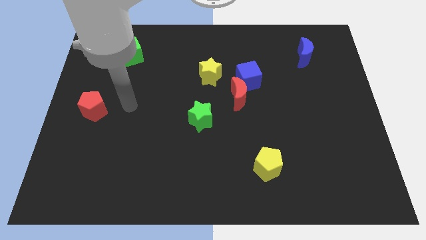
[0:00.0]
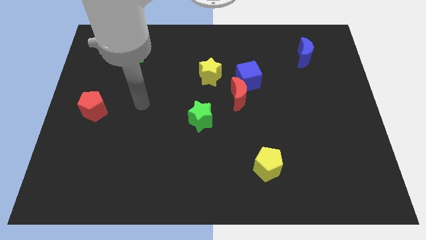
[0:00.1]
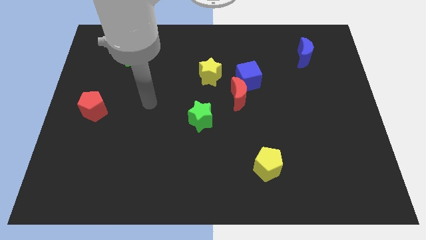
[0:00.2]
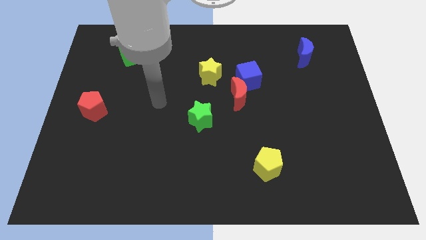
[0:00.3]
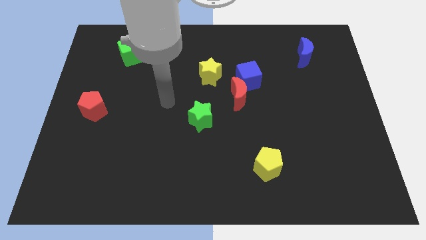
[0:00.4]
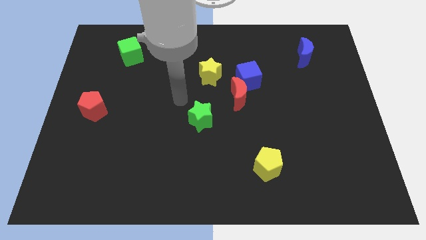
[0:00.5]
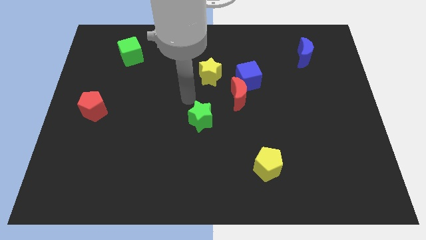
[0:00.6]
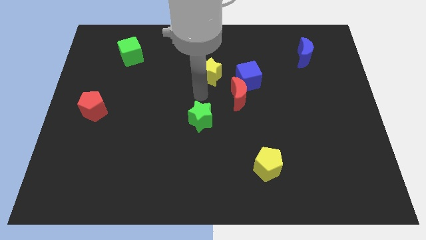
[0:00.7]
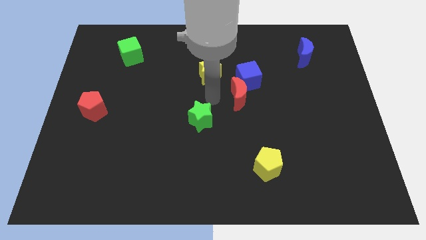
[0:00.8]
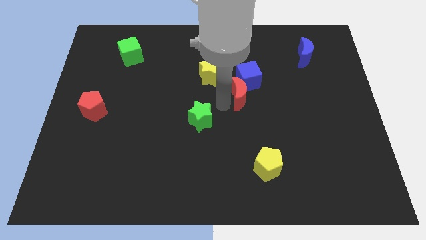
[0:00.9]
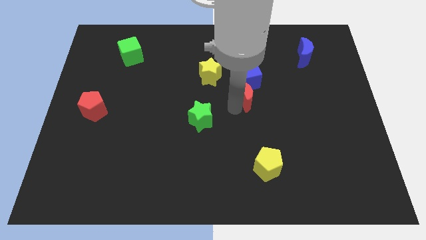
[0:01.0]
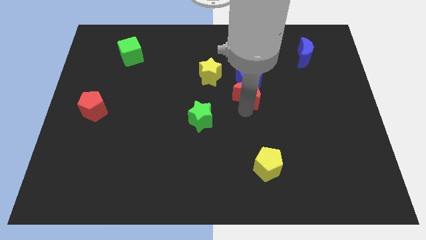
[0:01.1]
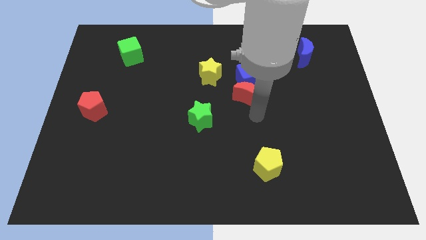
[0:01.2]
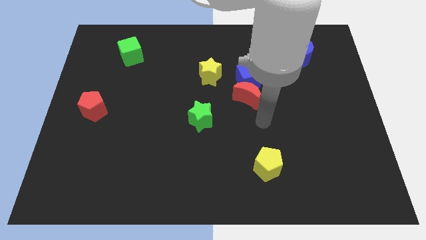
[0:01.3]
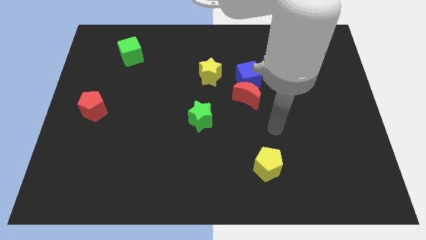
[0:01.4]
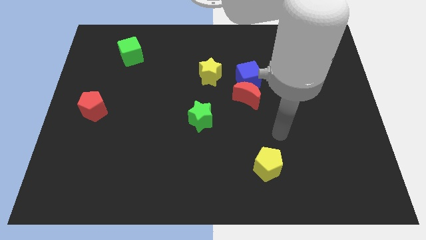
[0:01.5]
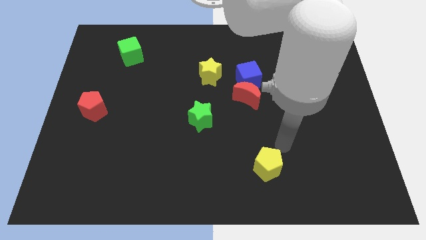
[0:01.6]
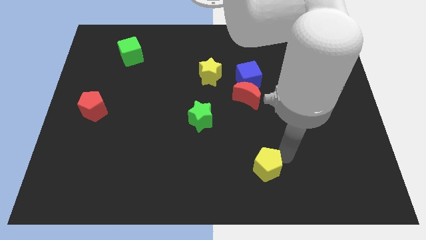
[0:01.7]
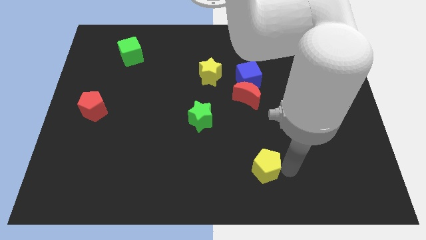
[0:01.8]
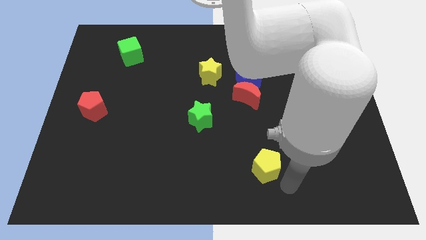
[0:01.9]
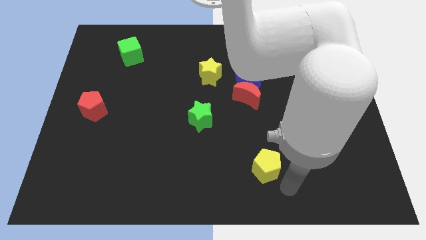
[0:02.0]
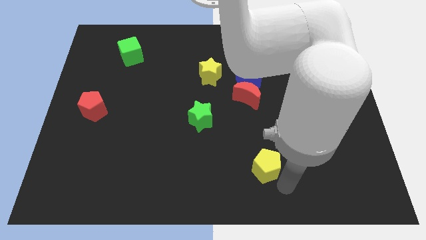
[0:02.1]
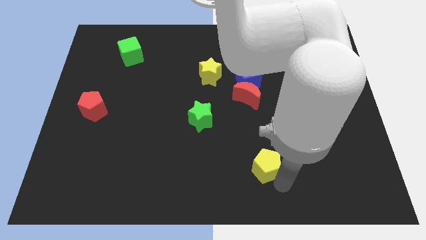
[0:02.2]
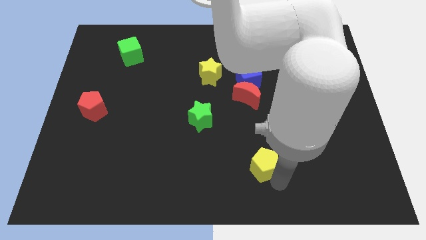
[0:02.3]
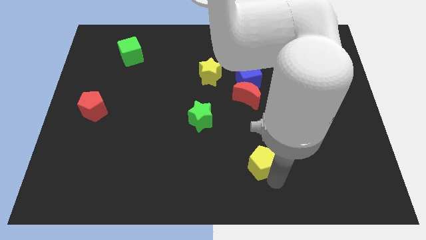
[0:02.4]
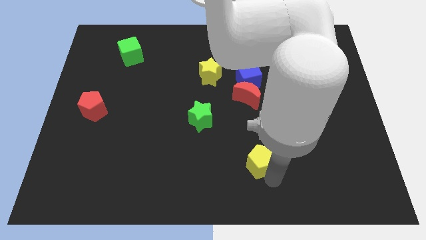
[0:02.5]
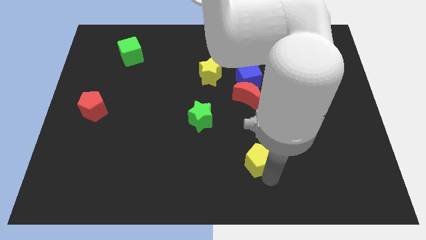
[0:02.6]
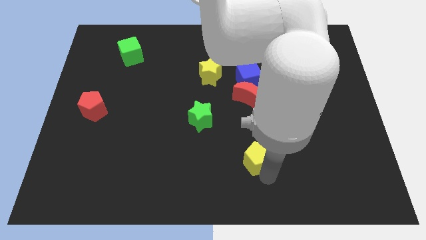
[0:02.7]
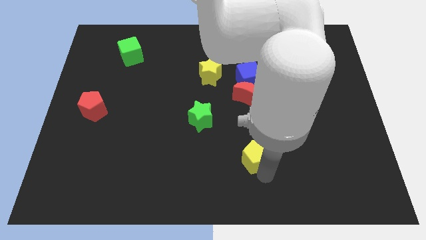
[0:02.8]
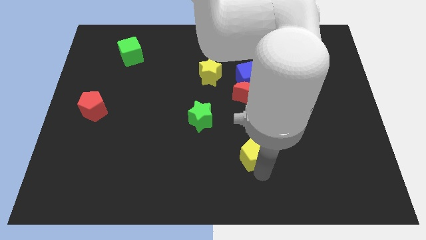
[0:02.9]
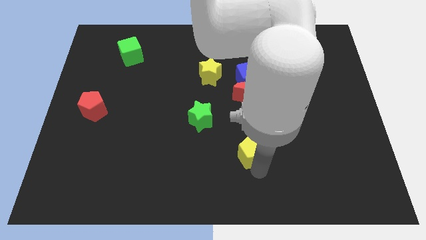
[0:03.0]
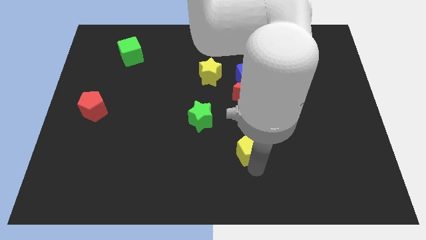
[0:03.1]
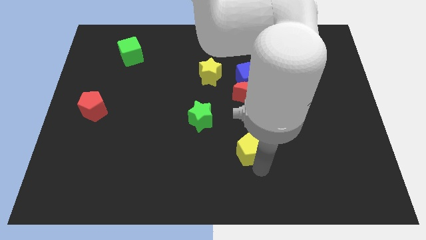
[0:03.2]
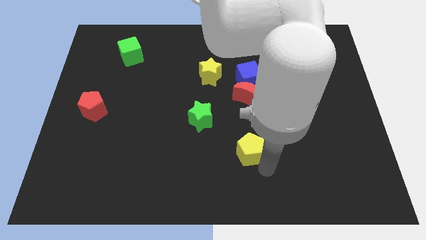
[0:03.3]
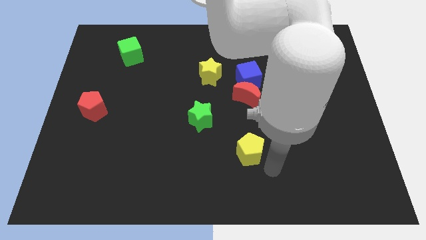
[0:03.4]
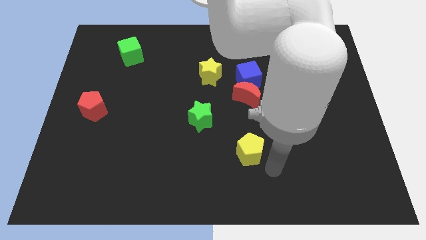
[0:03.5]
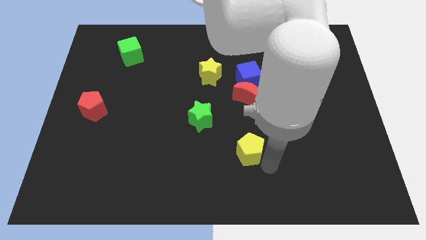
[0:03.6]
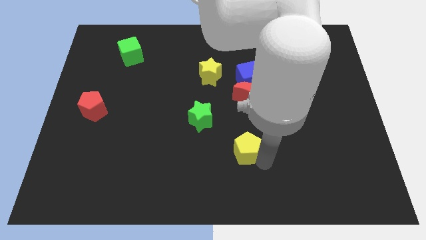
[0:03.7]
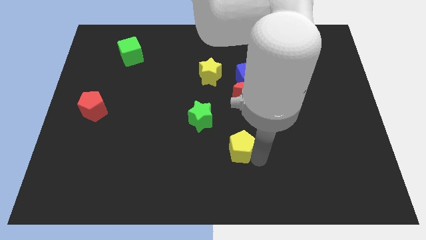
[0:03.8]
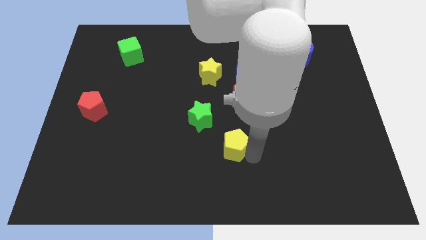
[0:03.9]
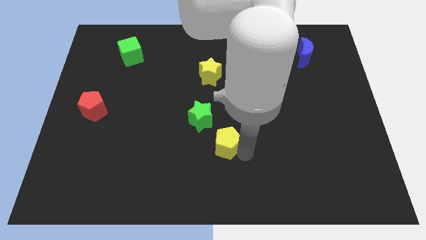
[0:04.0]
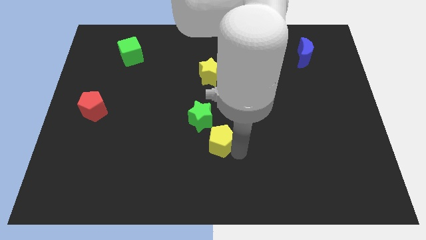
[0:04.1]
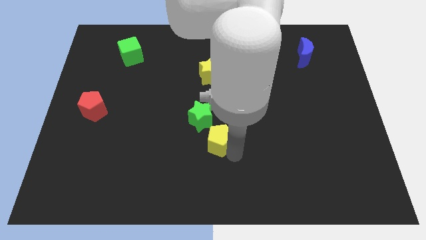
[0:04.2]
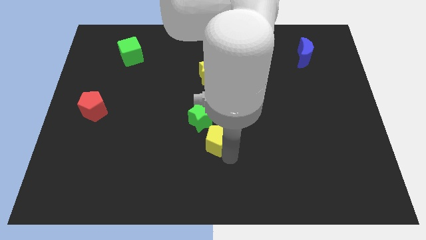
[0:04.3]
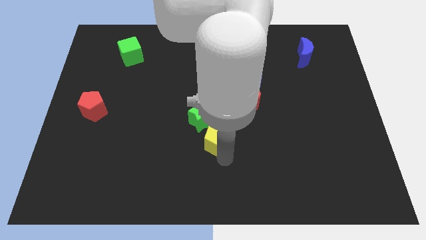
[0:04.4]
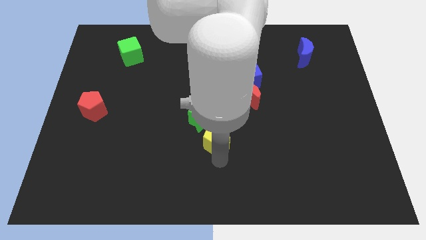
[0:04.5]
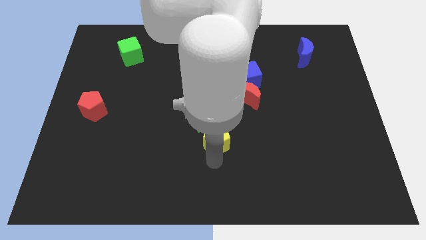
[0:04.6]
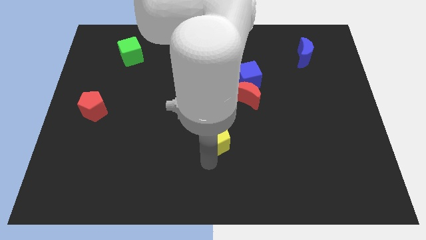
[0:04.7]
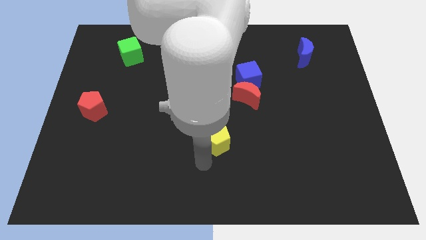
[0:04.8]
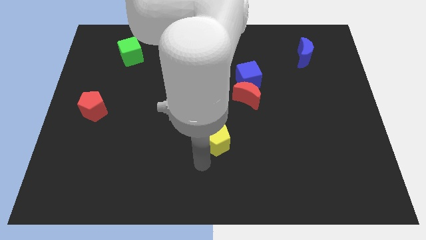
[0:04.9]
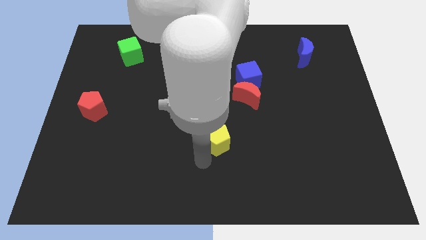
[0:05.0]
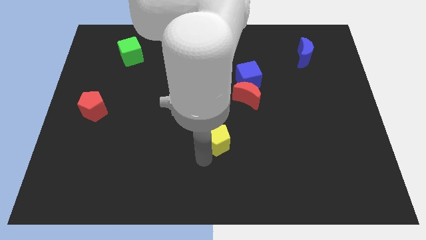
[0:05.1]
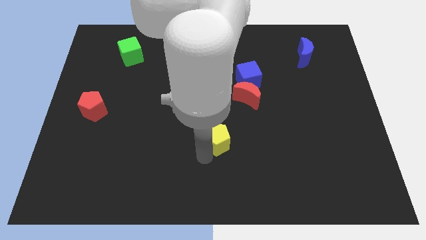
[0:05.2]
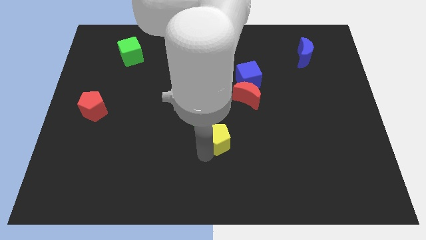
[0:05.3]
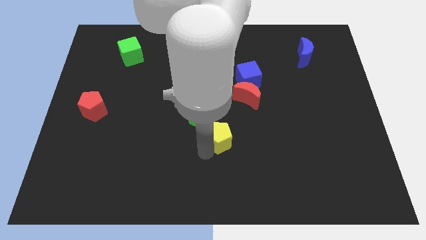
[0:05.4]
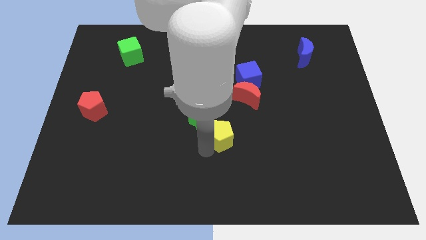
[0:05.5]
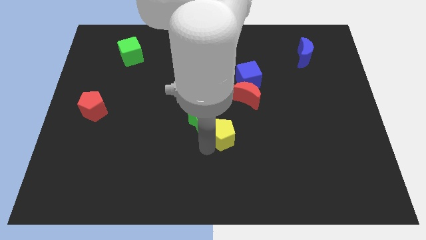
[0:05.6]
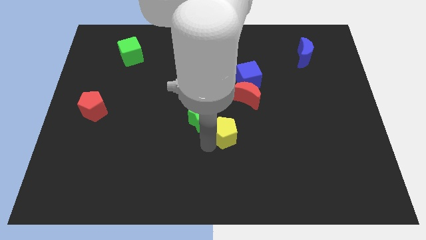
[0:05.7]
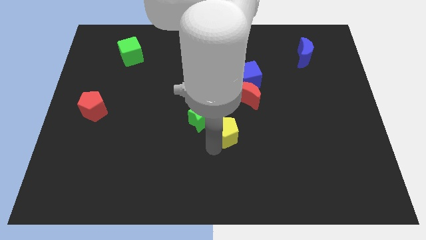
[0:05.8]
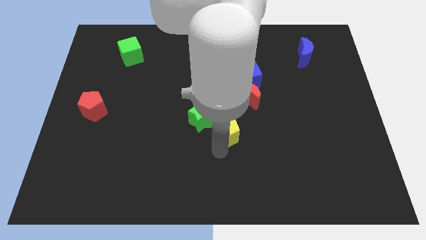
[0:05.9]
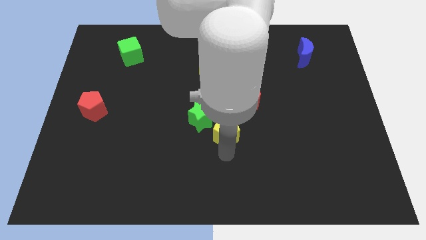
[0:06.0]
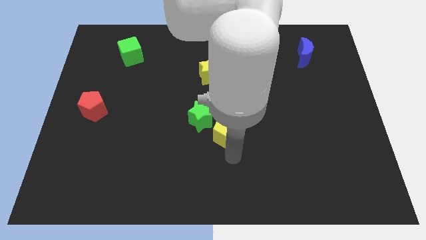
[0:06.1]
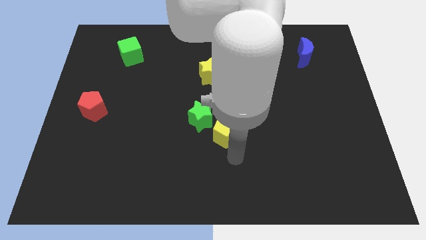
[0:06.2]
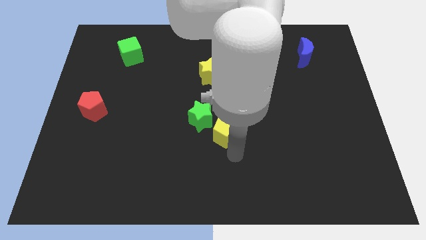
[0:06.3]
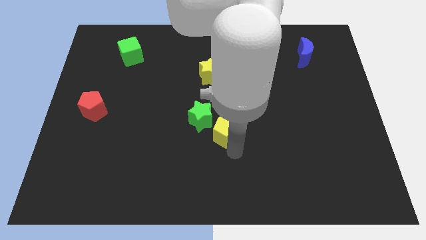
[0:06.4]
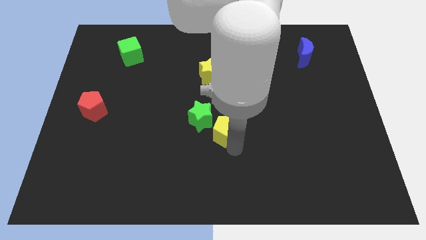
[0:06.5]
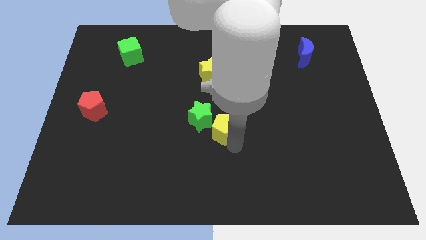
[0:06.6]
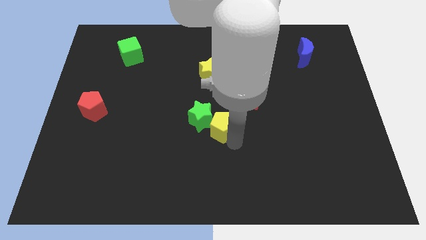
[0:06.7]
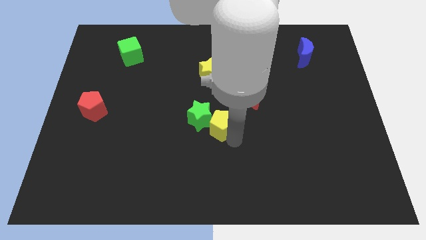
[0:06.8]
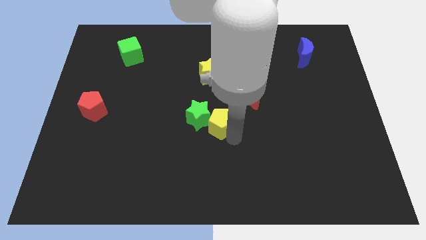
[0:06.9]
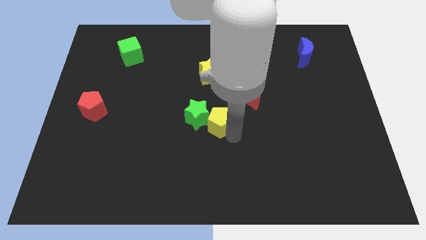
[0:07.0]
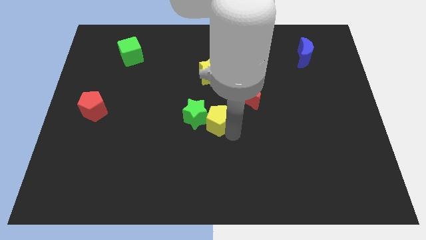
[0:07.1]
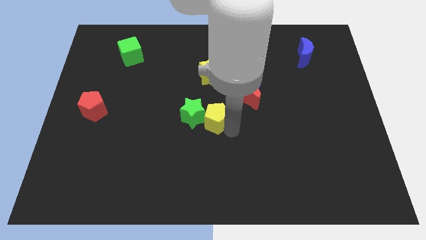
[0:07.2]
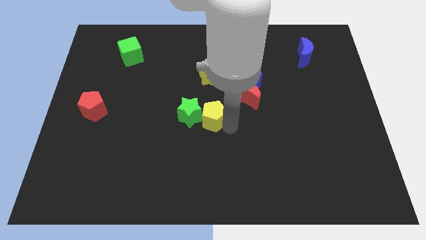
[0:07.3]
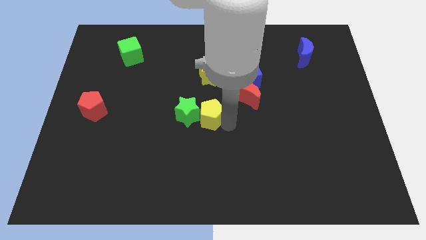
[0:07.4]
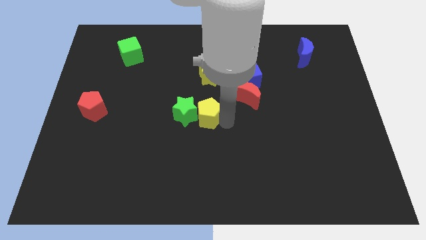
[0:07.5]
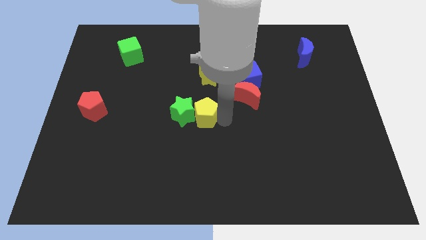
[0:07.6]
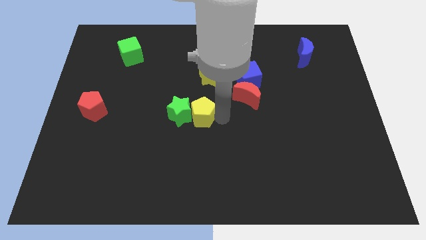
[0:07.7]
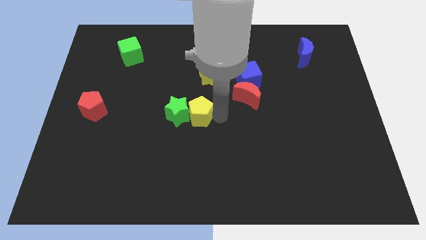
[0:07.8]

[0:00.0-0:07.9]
slide the yellow pentagon upwards and left

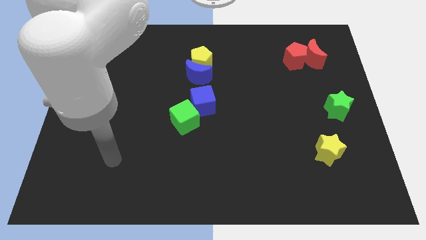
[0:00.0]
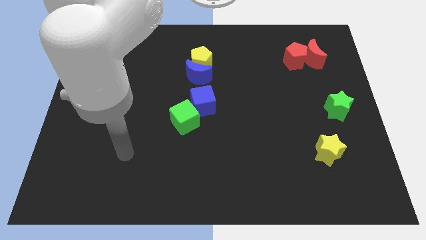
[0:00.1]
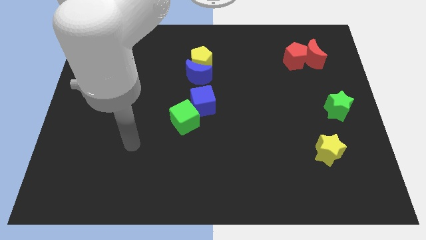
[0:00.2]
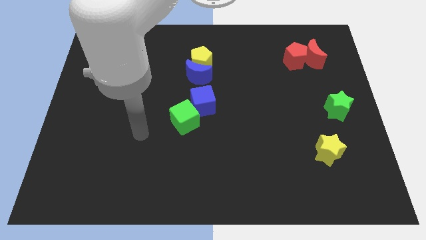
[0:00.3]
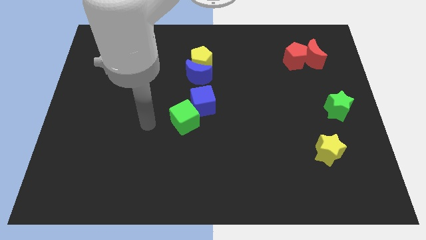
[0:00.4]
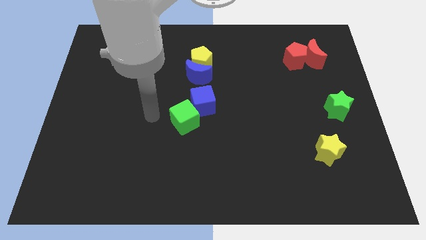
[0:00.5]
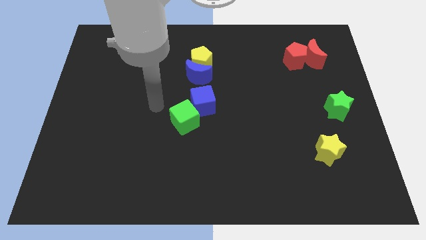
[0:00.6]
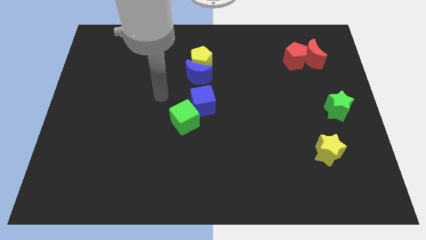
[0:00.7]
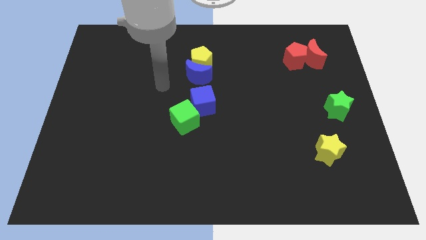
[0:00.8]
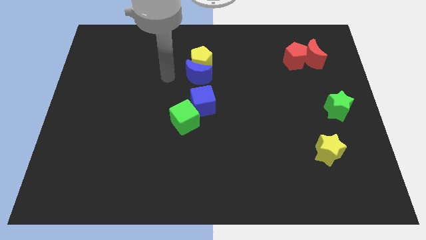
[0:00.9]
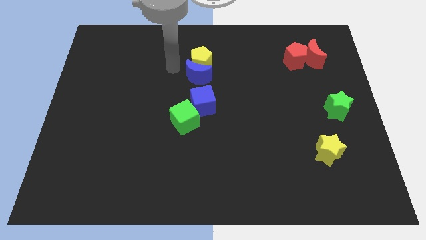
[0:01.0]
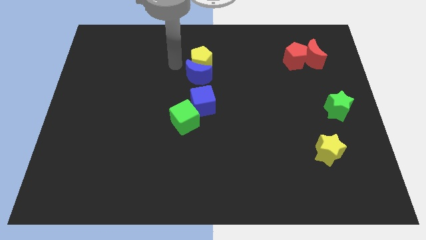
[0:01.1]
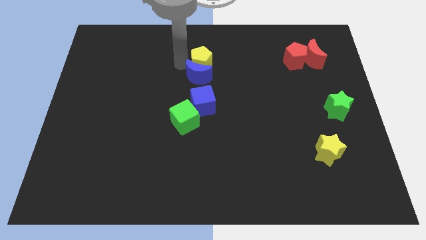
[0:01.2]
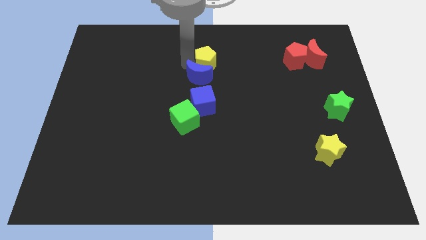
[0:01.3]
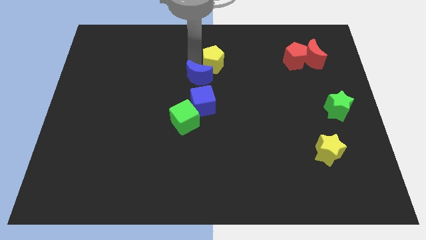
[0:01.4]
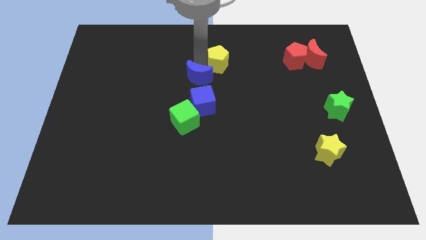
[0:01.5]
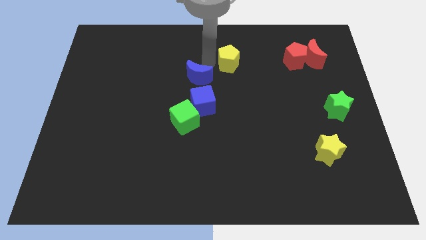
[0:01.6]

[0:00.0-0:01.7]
push the yellow pentagon slightly right
